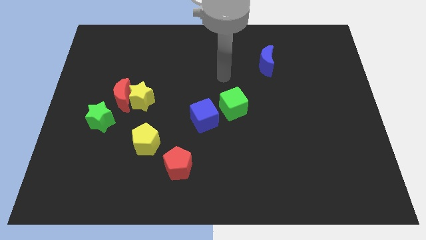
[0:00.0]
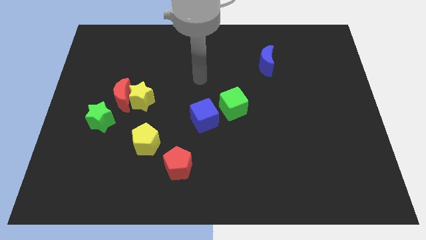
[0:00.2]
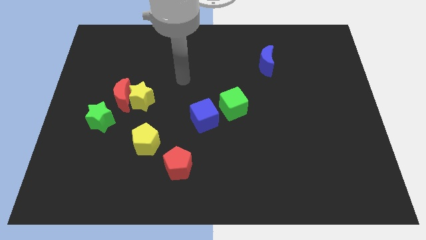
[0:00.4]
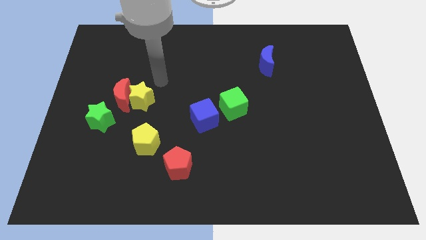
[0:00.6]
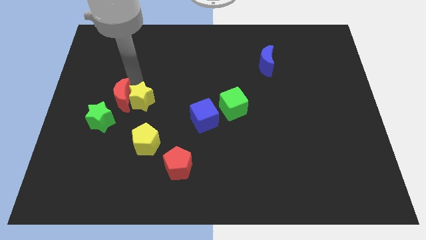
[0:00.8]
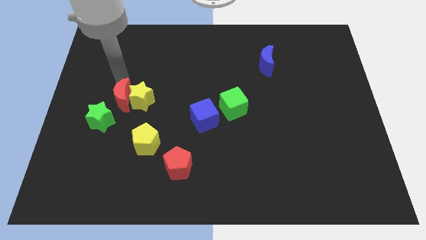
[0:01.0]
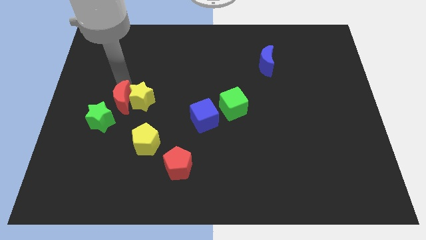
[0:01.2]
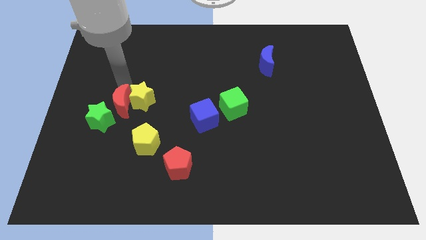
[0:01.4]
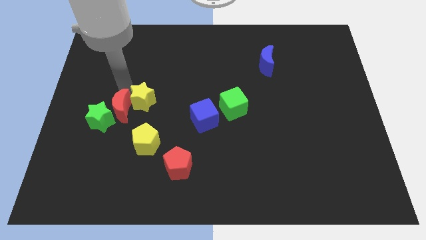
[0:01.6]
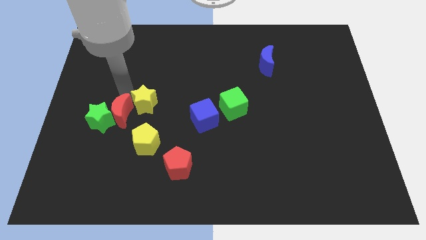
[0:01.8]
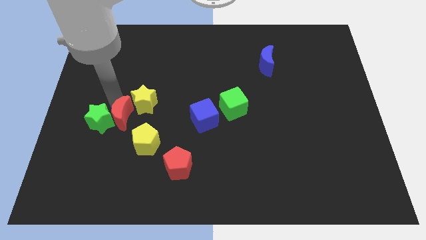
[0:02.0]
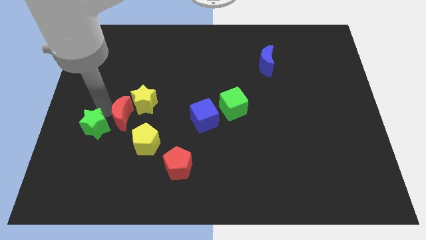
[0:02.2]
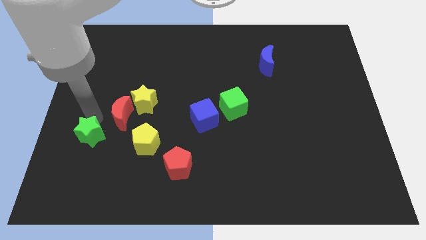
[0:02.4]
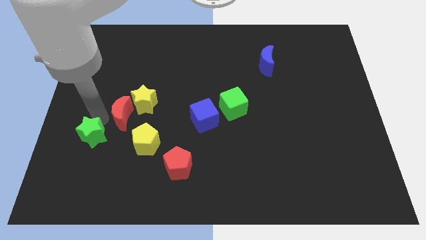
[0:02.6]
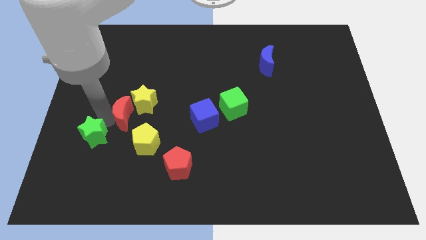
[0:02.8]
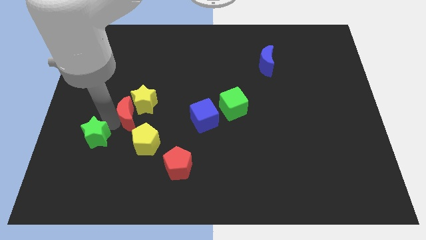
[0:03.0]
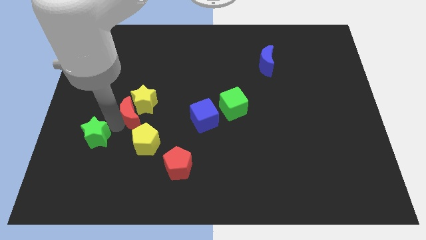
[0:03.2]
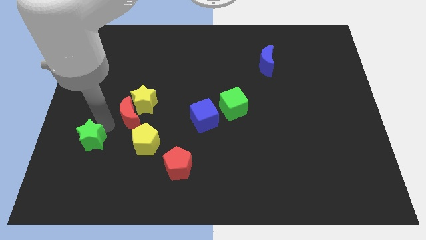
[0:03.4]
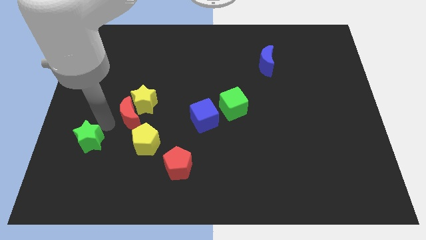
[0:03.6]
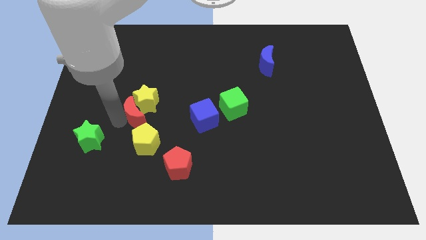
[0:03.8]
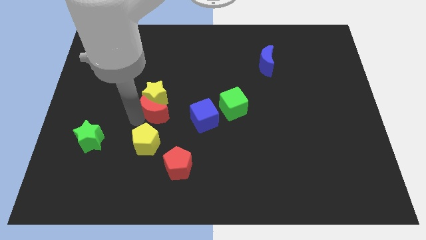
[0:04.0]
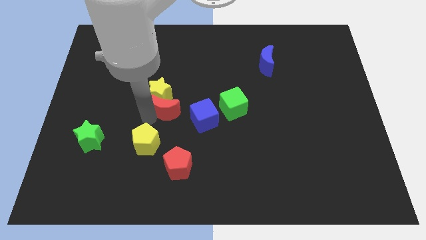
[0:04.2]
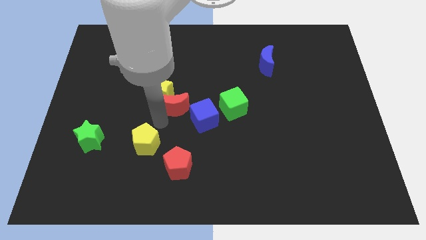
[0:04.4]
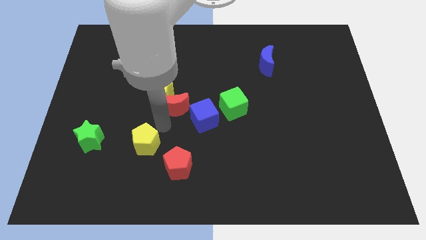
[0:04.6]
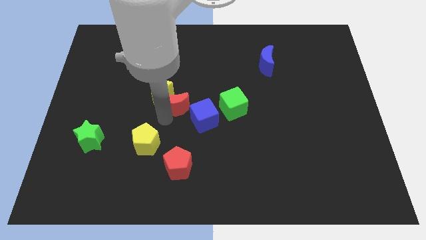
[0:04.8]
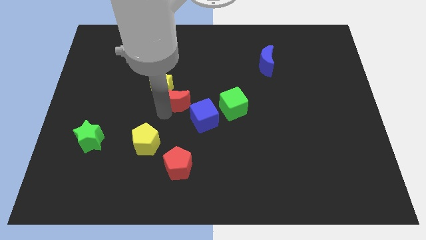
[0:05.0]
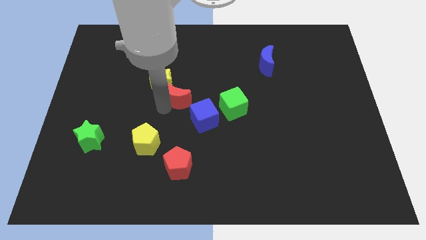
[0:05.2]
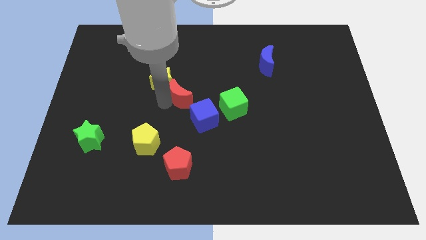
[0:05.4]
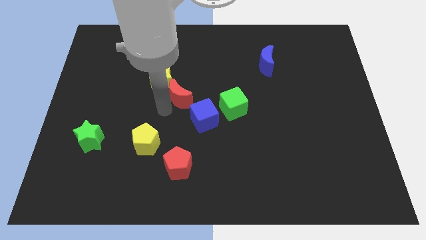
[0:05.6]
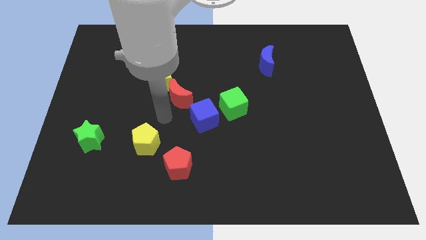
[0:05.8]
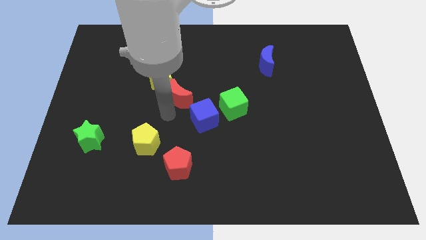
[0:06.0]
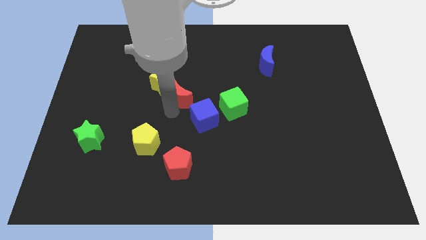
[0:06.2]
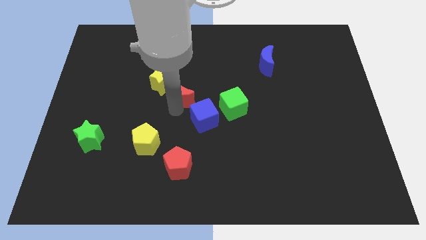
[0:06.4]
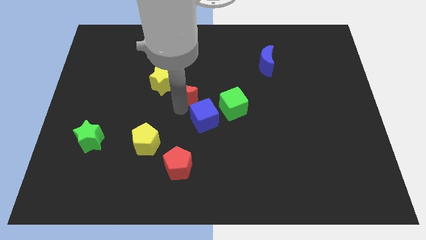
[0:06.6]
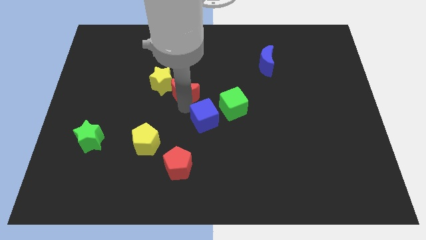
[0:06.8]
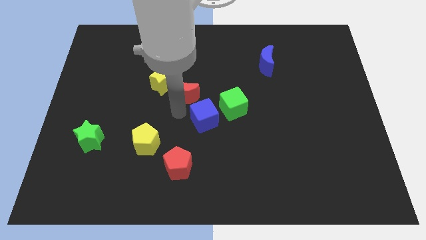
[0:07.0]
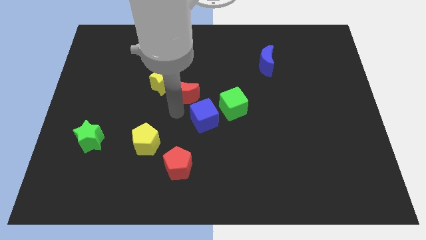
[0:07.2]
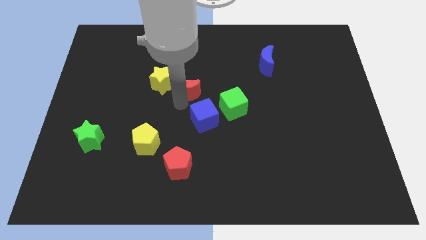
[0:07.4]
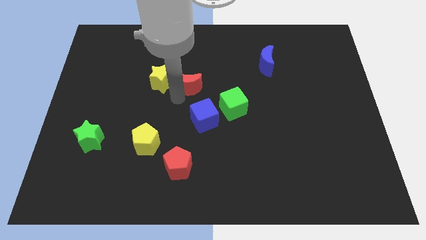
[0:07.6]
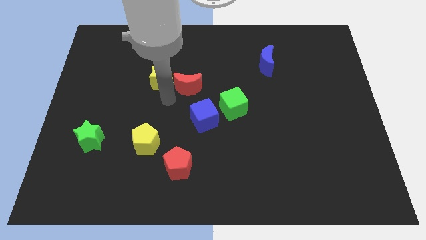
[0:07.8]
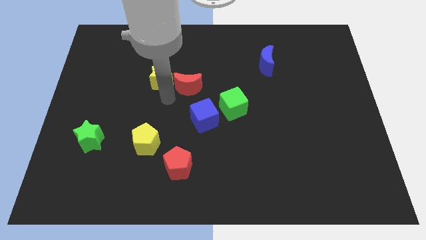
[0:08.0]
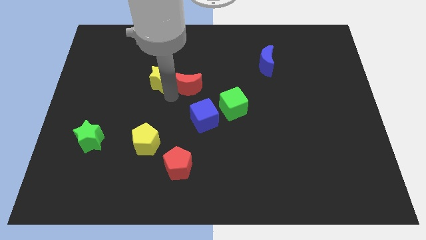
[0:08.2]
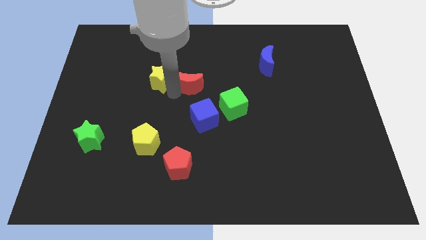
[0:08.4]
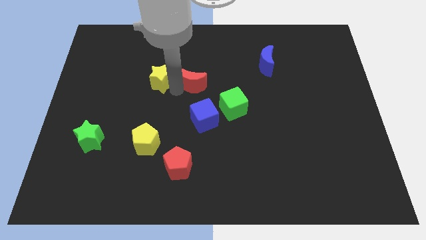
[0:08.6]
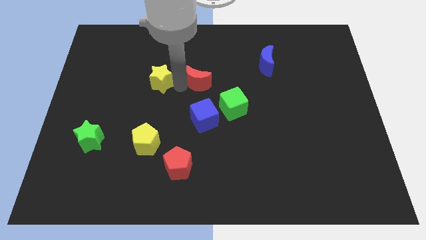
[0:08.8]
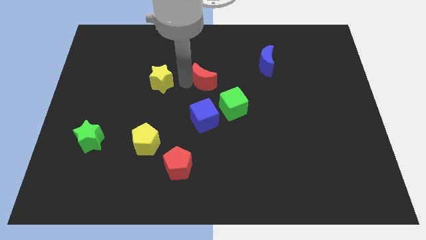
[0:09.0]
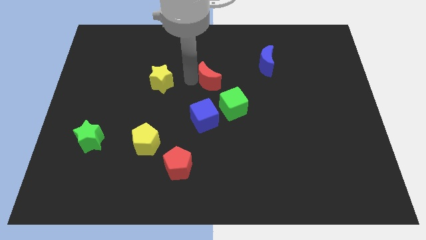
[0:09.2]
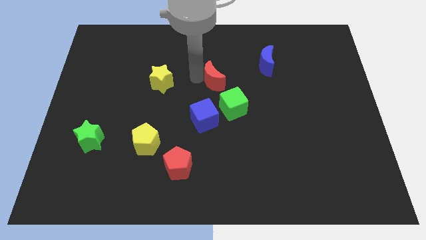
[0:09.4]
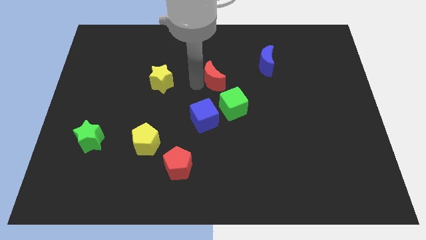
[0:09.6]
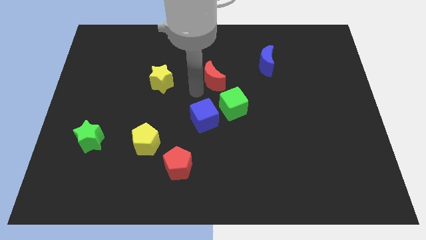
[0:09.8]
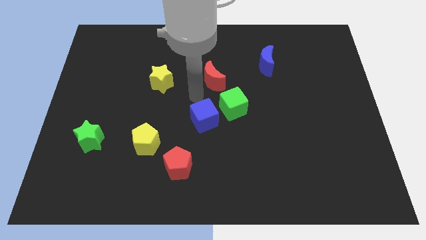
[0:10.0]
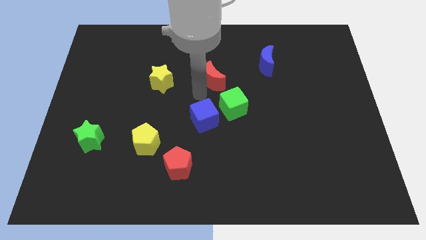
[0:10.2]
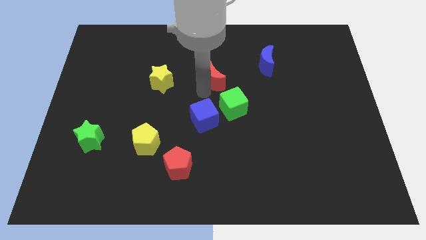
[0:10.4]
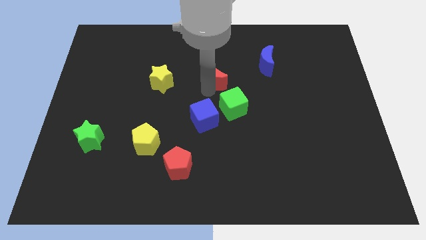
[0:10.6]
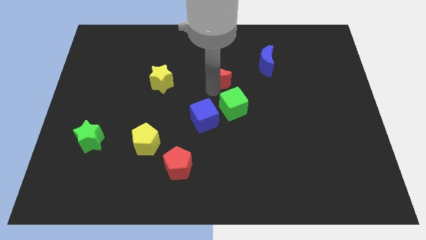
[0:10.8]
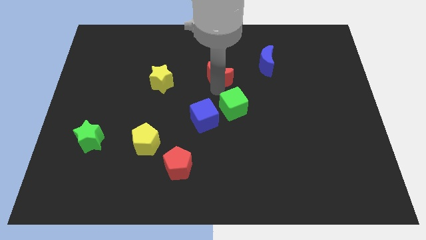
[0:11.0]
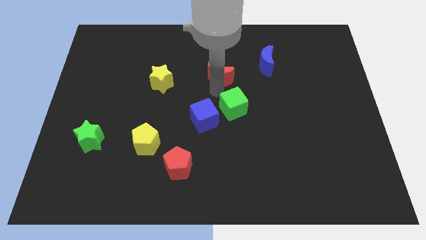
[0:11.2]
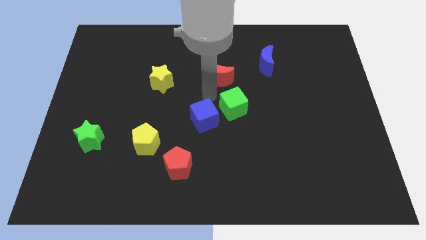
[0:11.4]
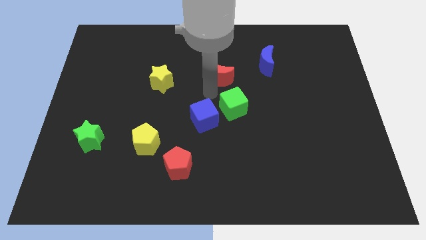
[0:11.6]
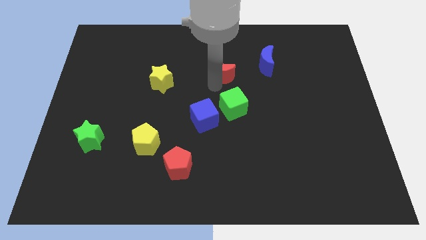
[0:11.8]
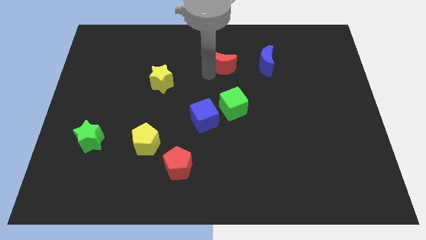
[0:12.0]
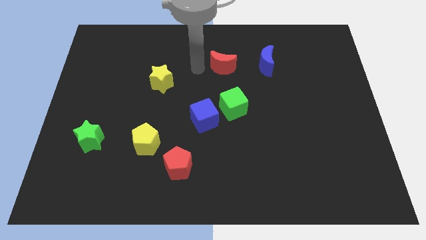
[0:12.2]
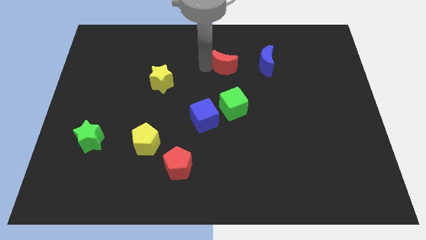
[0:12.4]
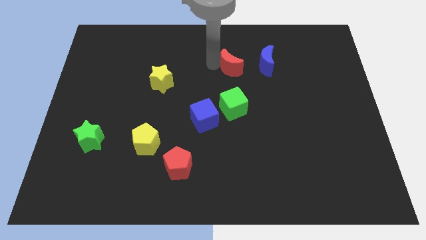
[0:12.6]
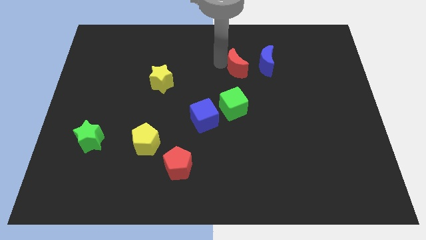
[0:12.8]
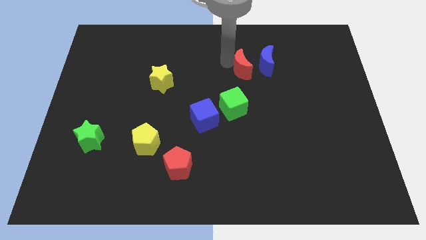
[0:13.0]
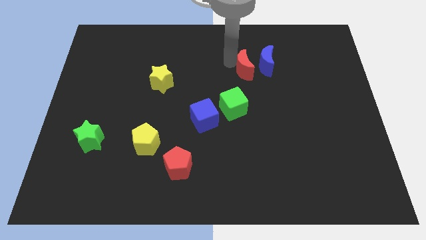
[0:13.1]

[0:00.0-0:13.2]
push the red moon next to the blue moon

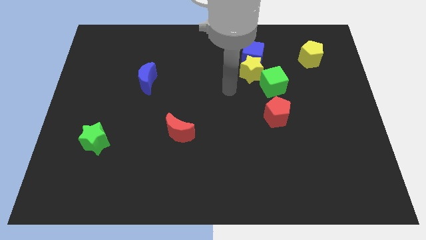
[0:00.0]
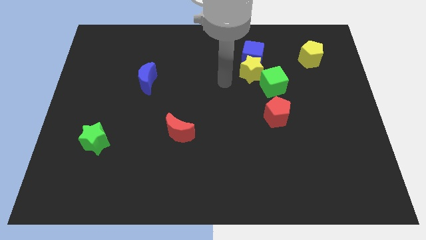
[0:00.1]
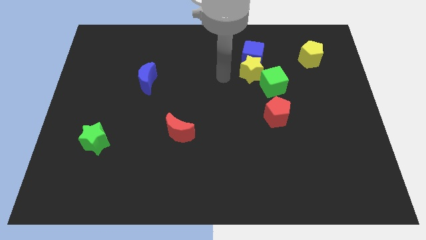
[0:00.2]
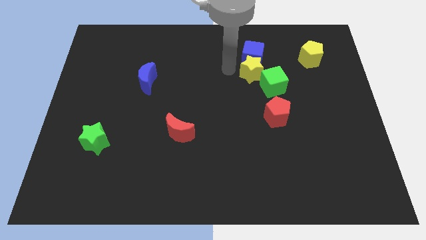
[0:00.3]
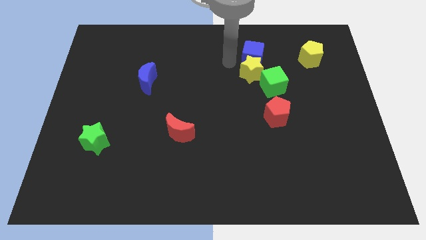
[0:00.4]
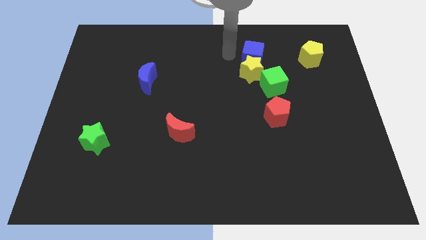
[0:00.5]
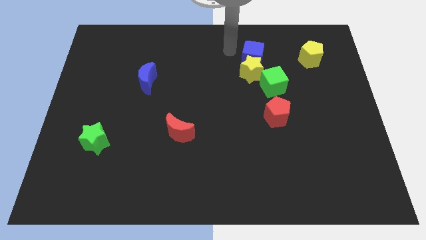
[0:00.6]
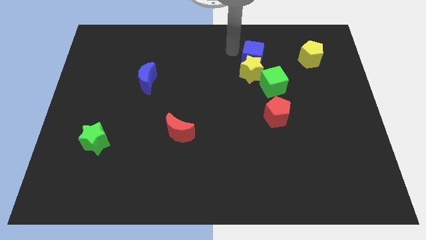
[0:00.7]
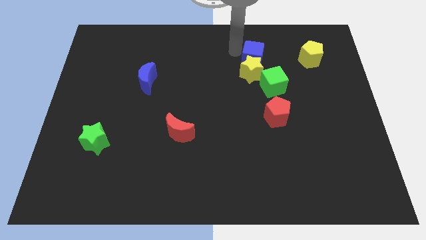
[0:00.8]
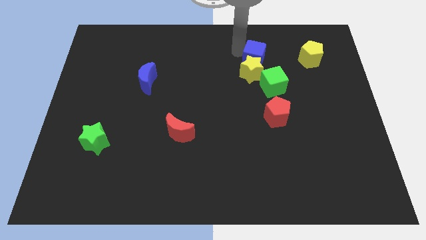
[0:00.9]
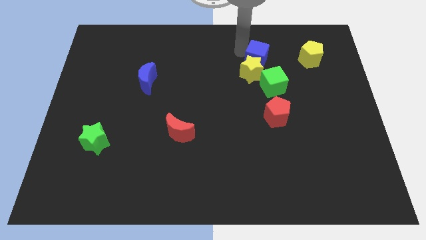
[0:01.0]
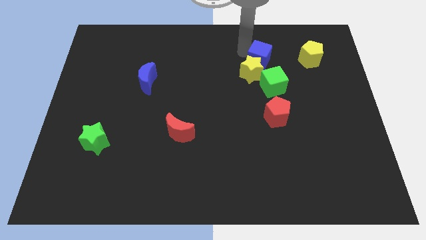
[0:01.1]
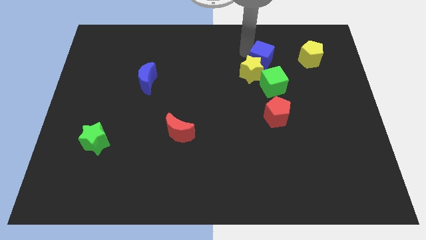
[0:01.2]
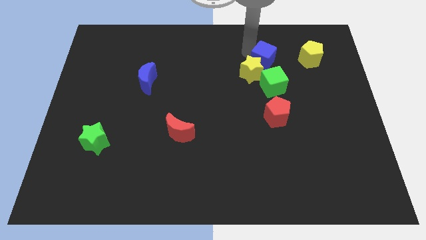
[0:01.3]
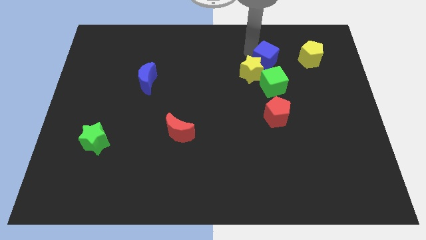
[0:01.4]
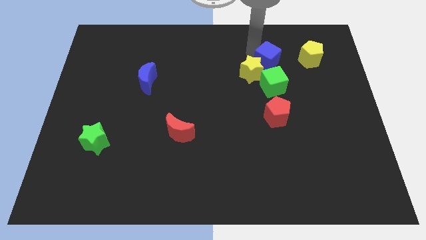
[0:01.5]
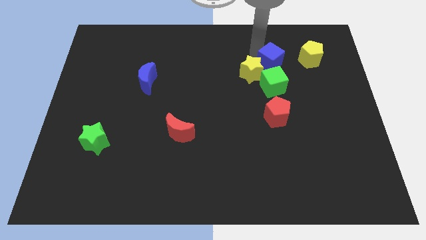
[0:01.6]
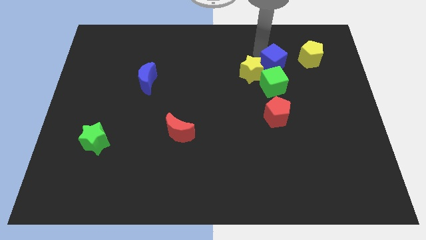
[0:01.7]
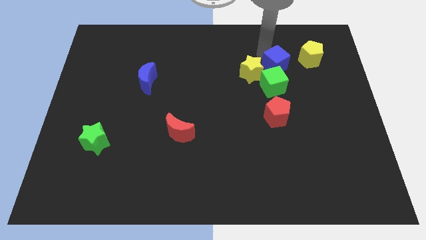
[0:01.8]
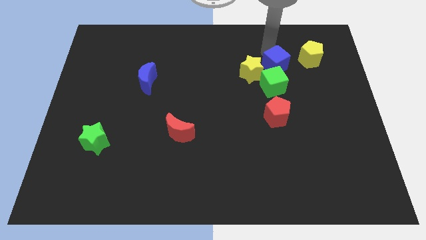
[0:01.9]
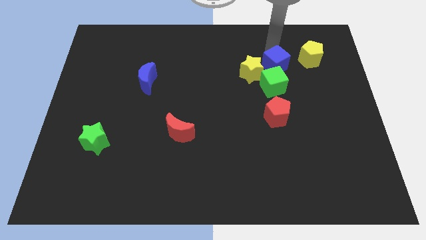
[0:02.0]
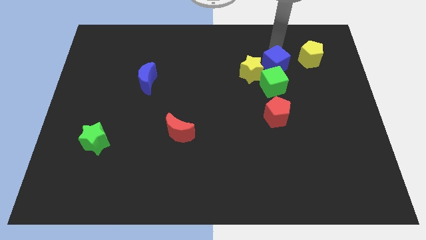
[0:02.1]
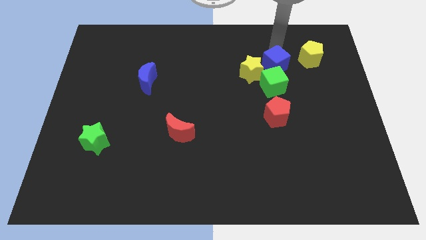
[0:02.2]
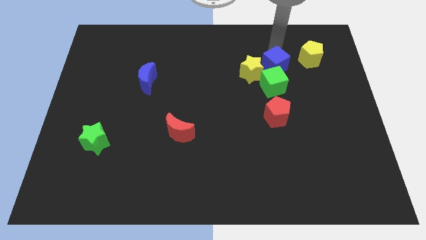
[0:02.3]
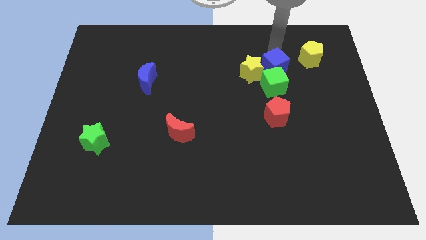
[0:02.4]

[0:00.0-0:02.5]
move the blue cube next to the green cube
